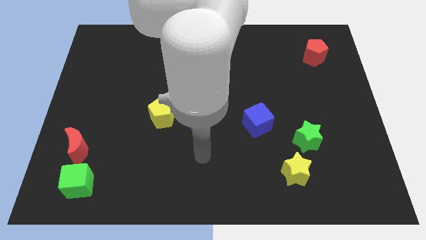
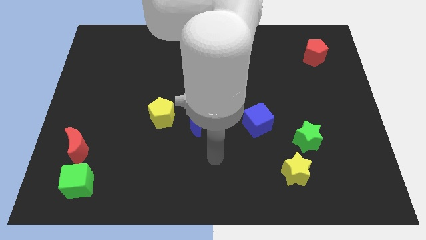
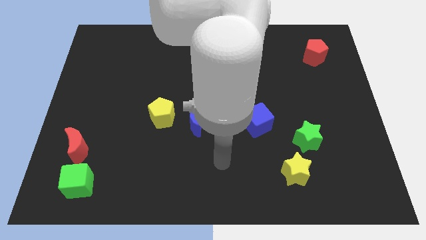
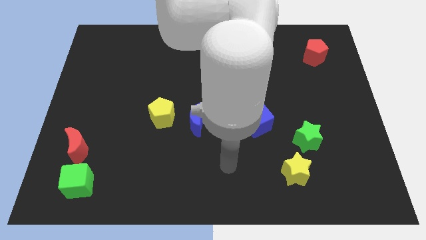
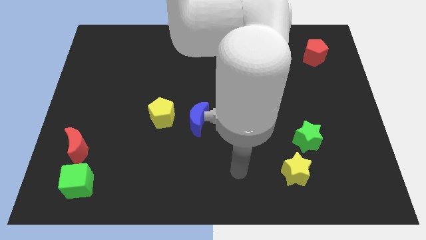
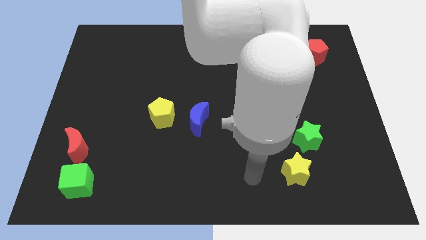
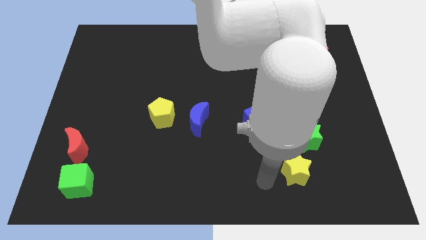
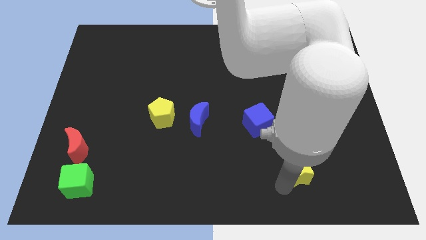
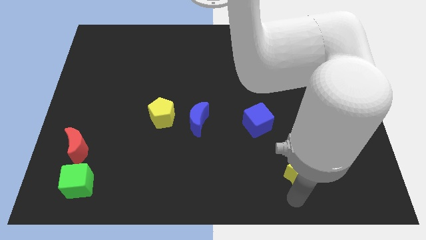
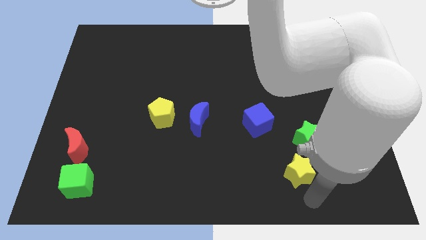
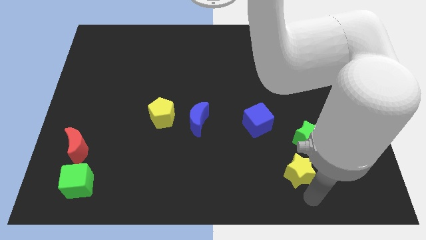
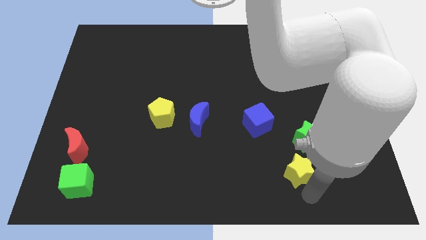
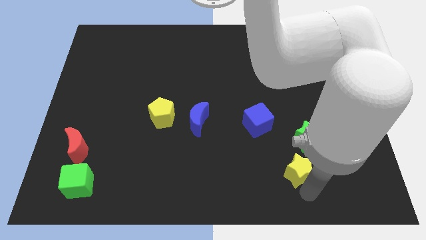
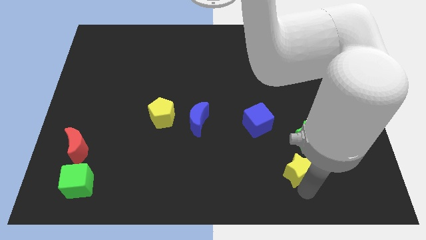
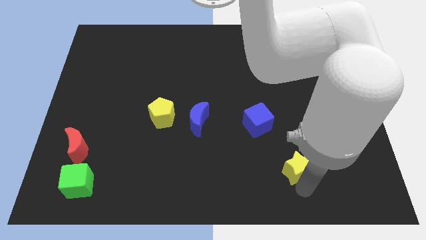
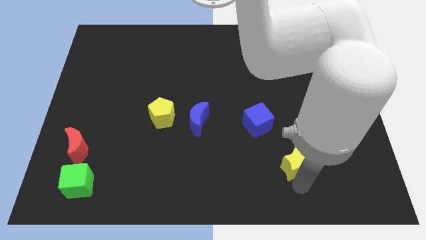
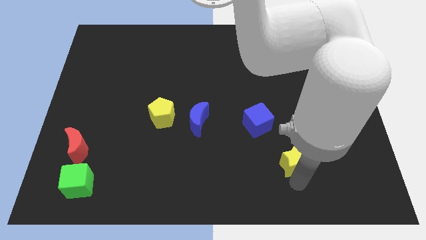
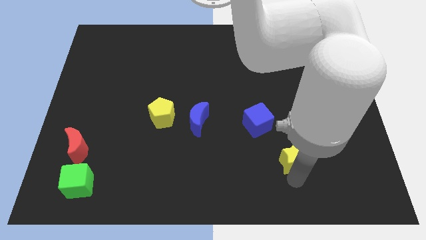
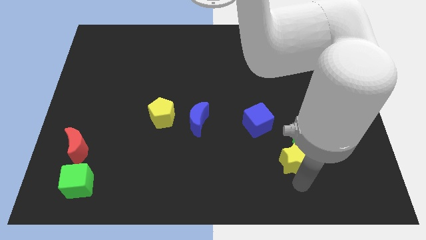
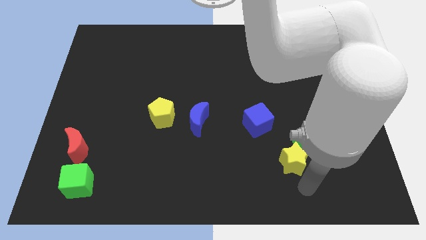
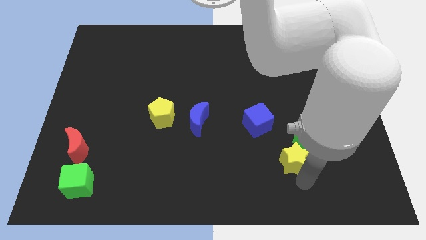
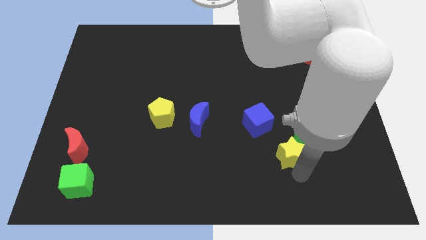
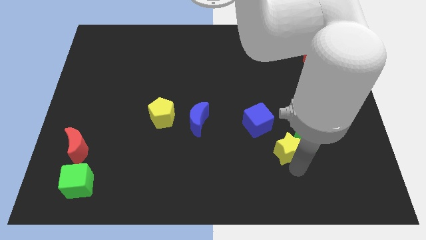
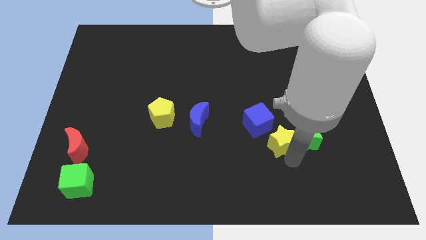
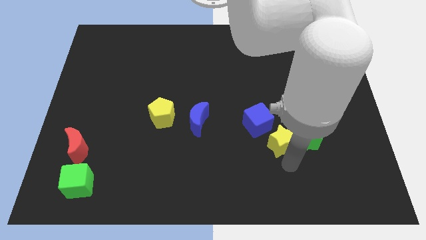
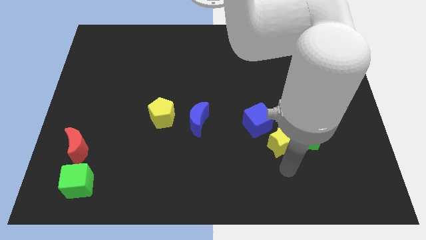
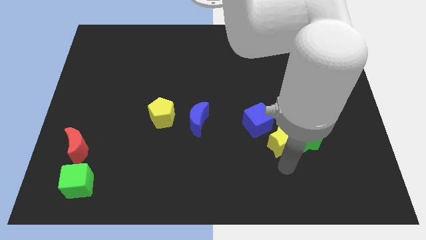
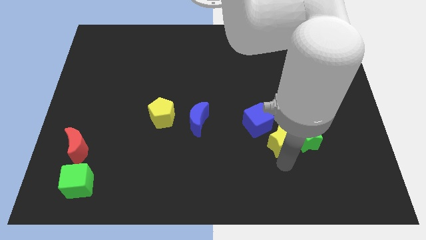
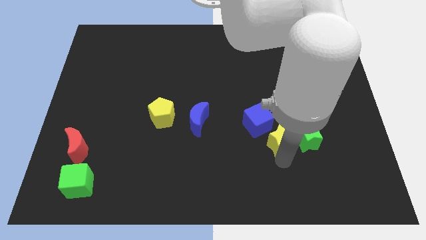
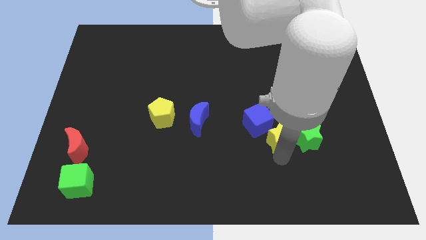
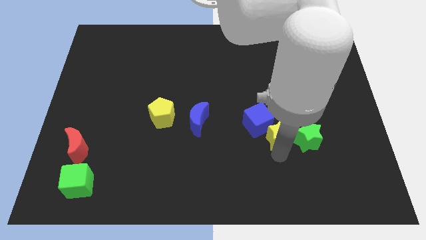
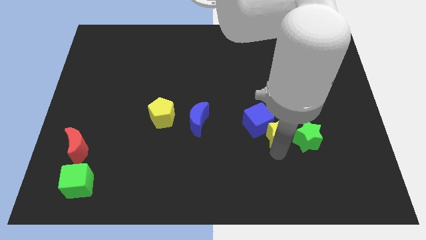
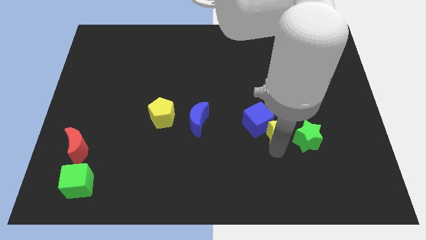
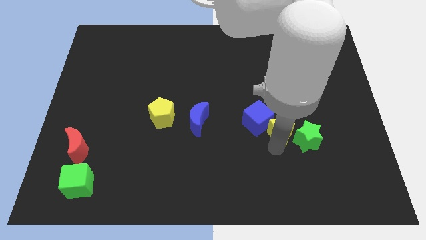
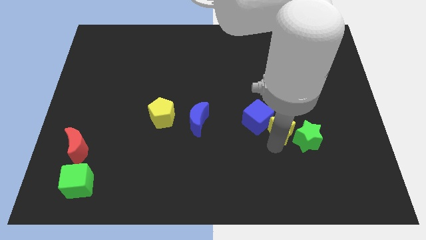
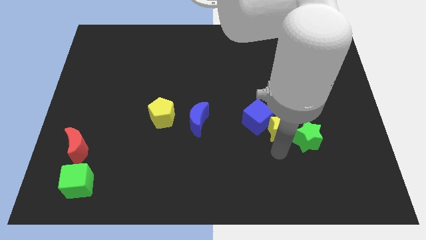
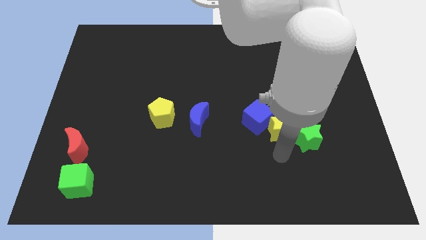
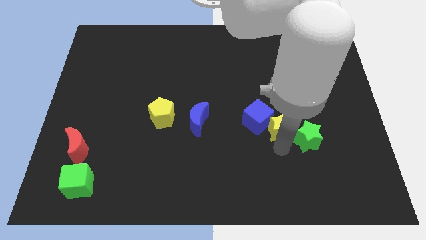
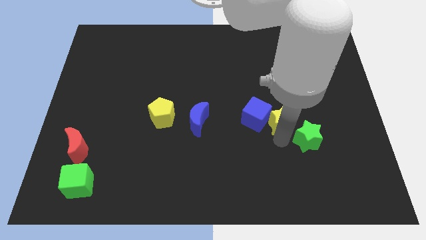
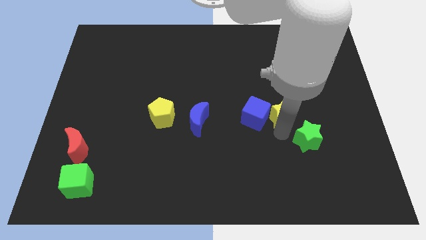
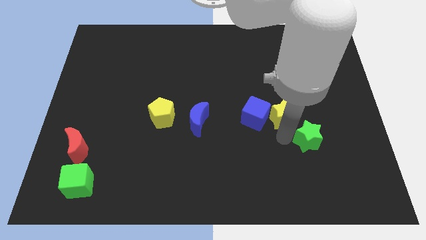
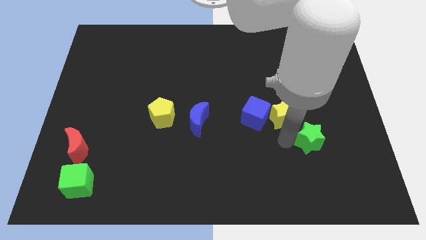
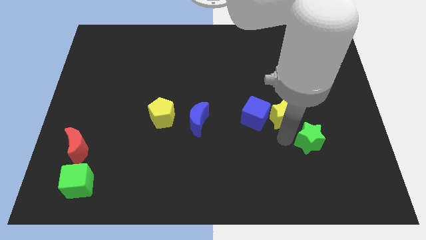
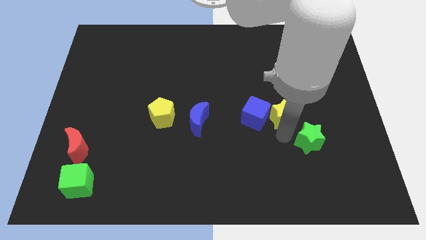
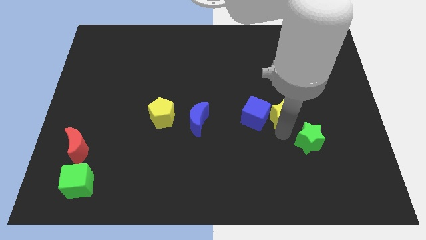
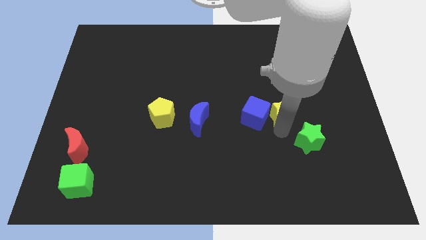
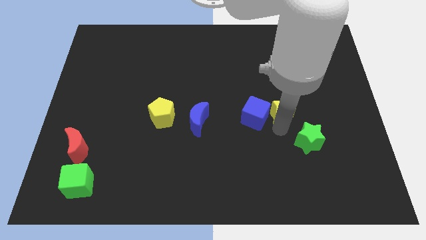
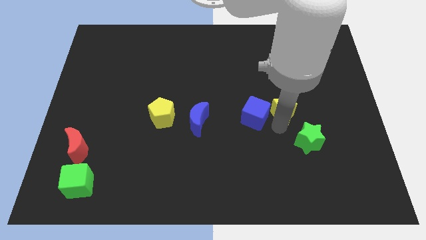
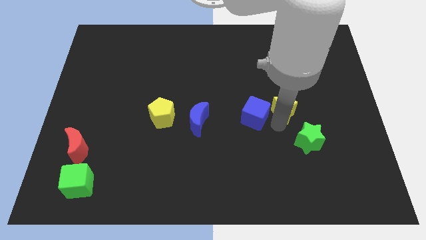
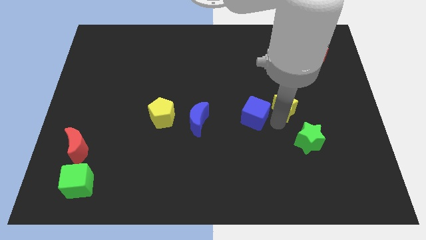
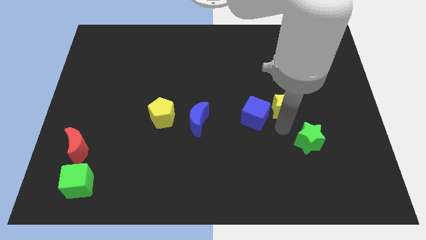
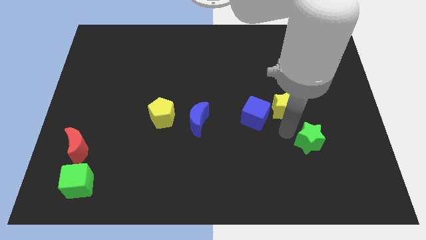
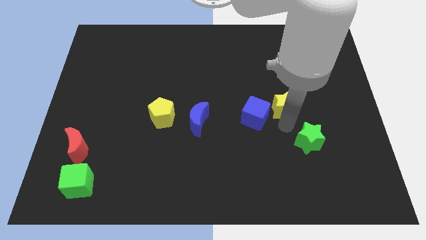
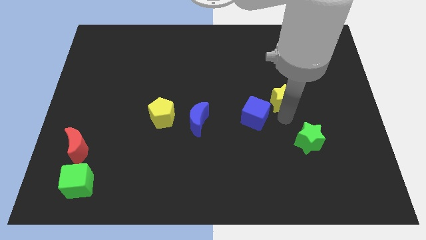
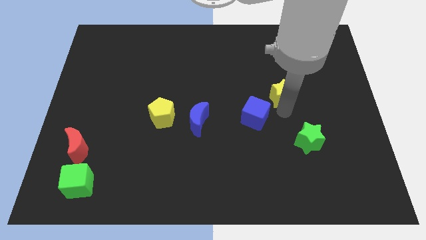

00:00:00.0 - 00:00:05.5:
push the yellow star upwards

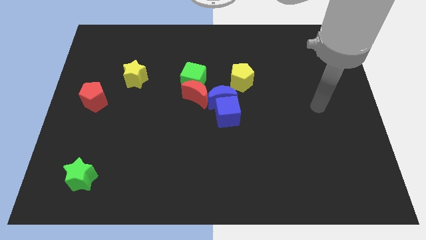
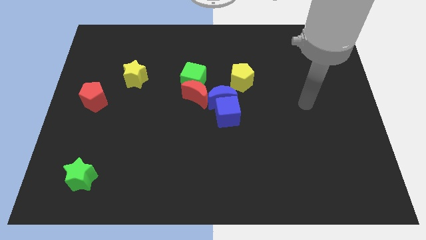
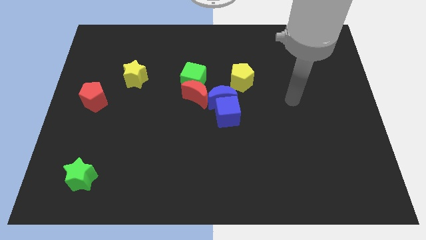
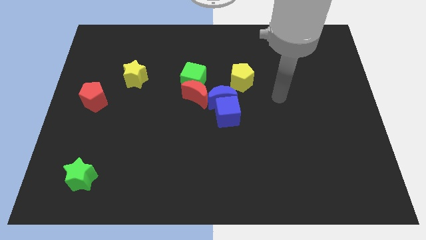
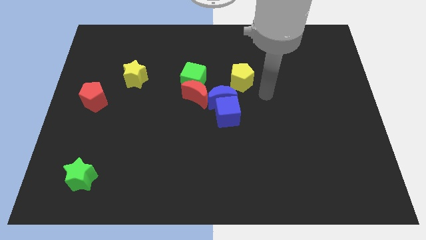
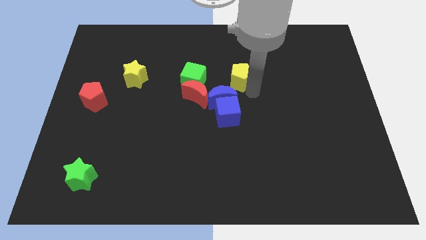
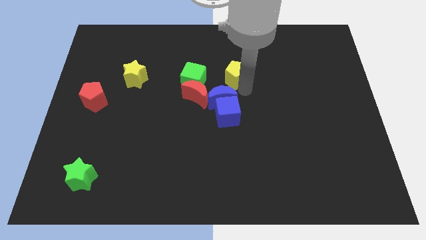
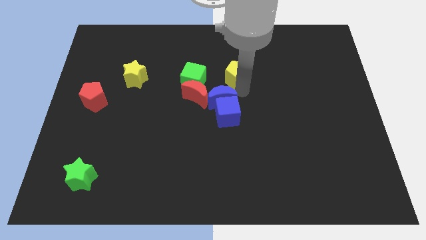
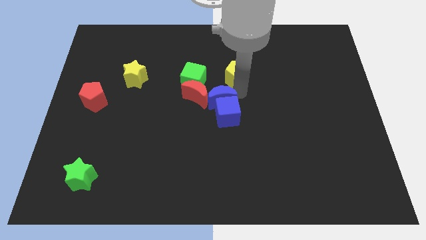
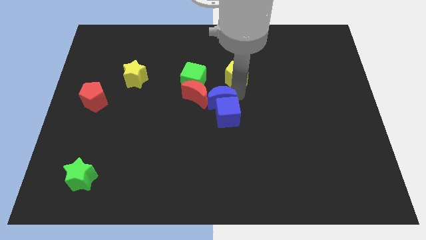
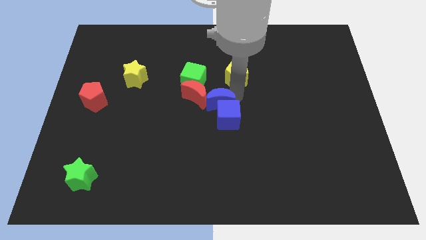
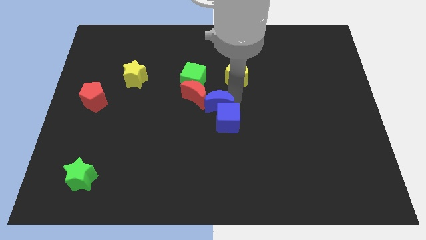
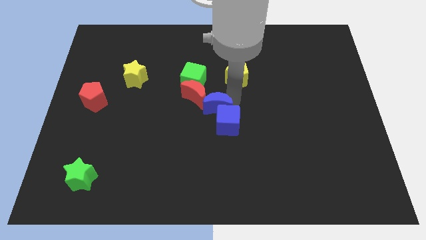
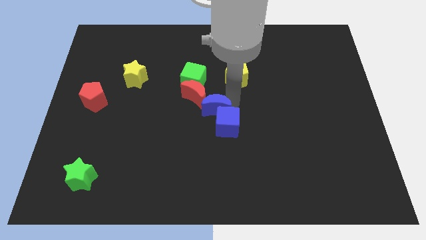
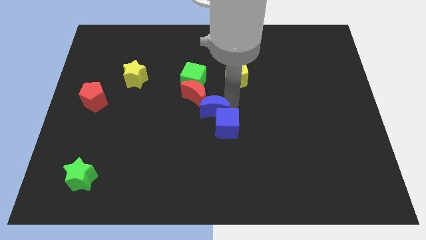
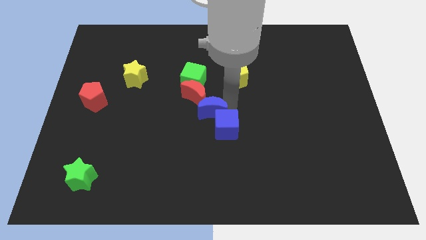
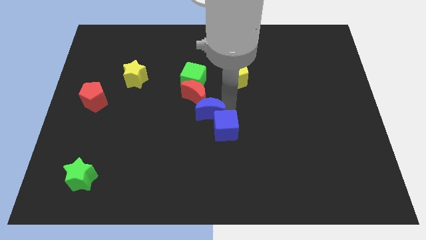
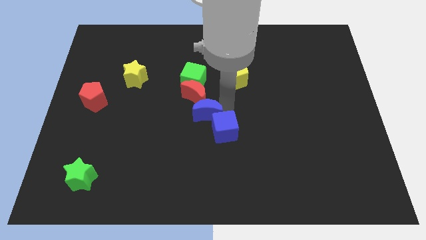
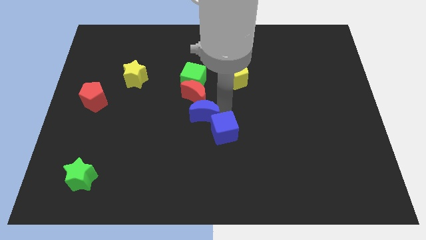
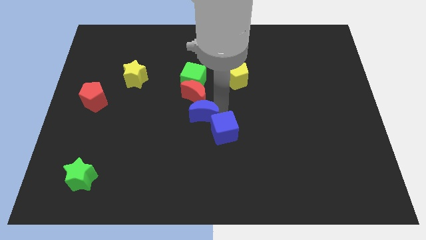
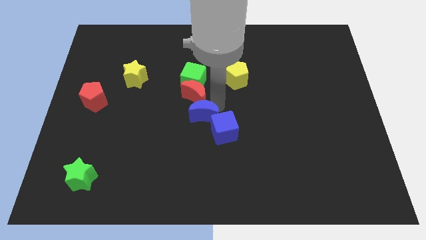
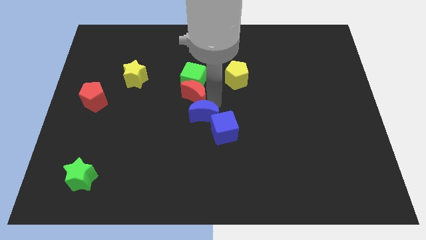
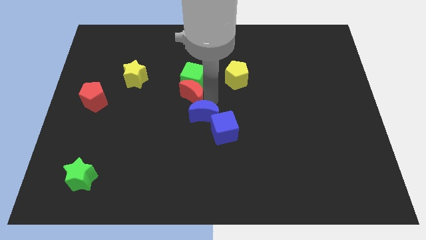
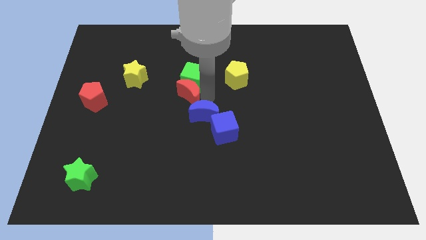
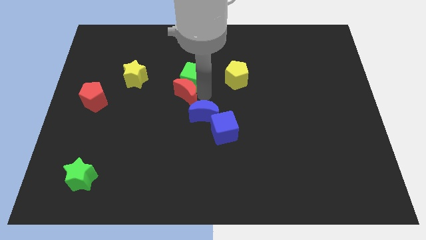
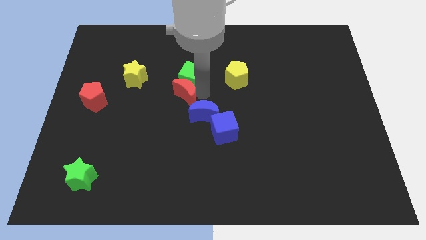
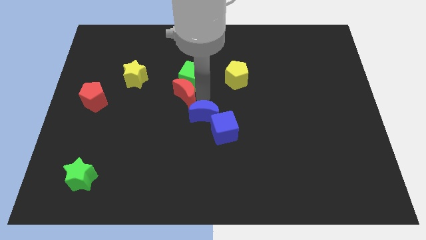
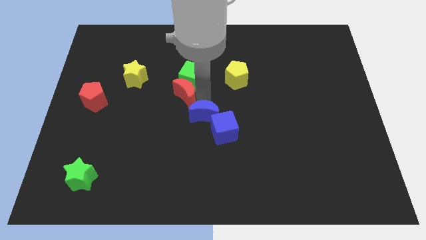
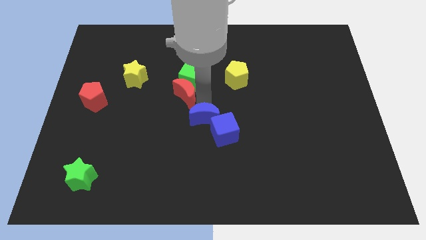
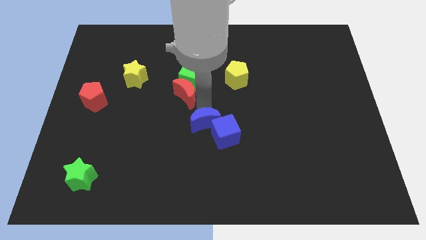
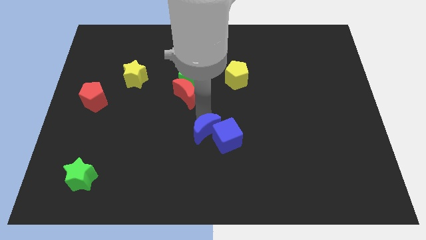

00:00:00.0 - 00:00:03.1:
move the blue moon a bit down
